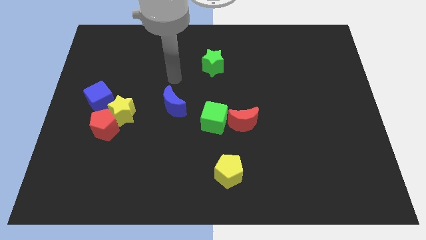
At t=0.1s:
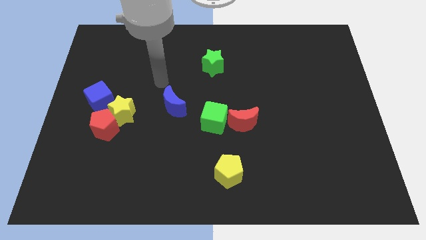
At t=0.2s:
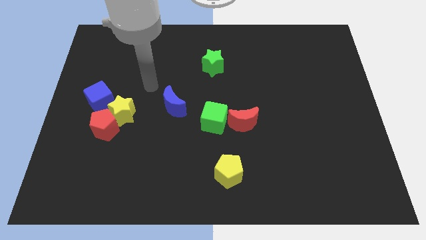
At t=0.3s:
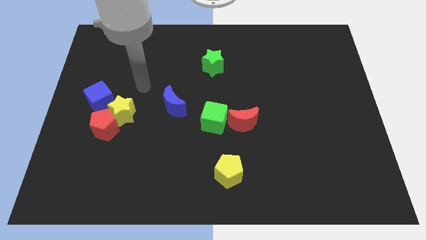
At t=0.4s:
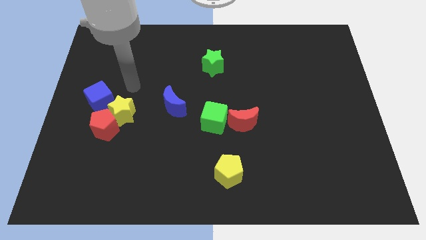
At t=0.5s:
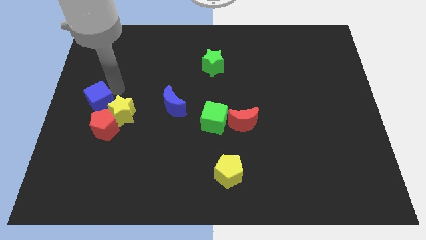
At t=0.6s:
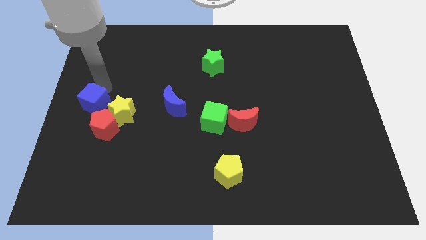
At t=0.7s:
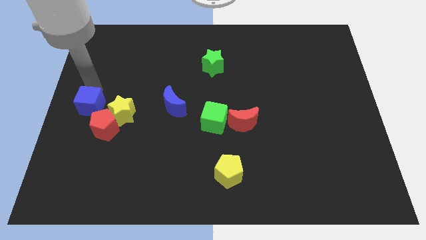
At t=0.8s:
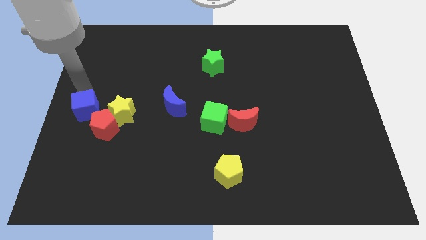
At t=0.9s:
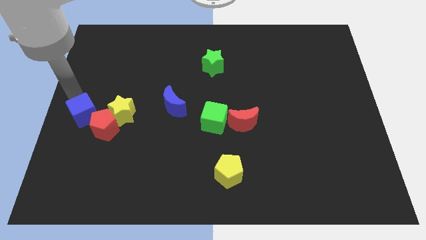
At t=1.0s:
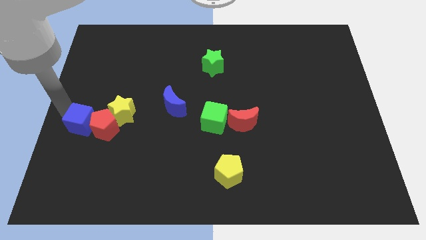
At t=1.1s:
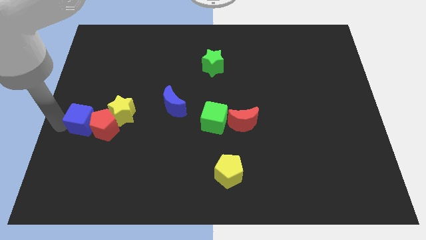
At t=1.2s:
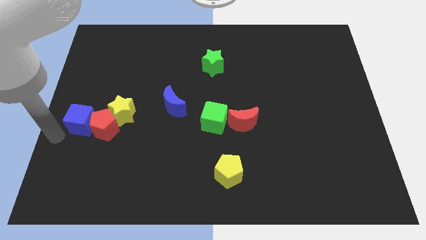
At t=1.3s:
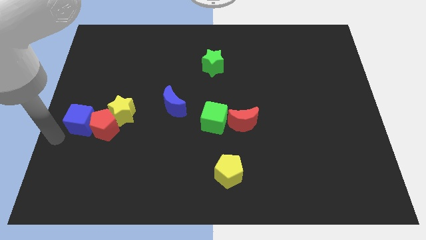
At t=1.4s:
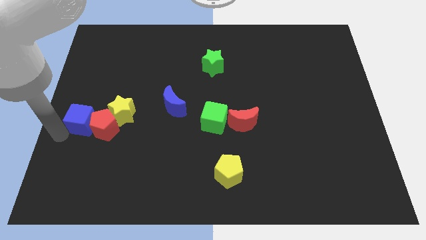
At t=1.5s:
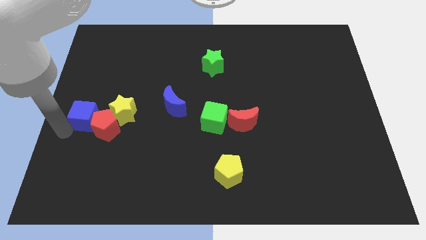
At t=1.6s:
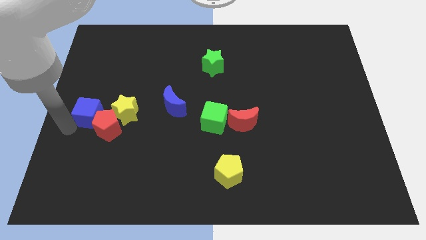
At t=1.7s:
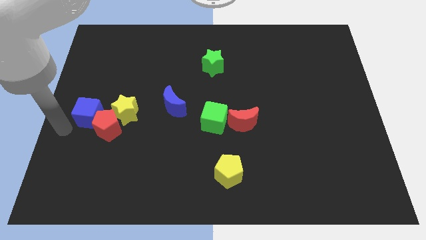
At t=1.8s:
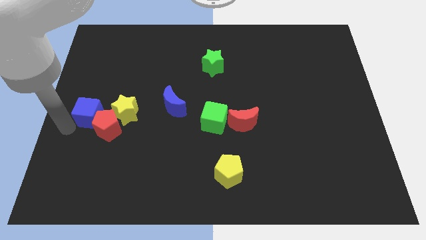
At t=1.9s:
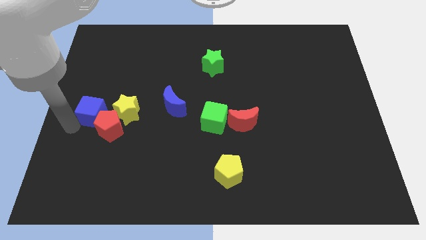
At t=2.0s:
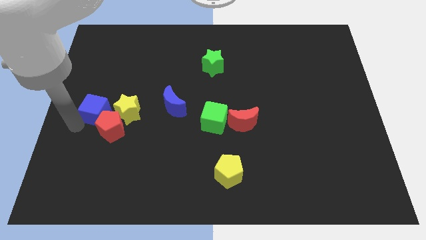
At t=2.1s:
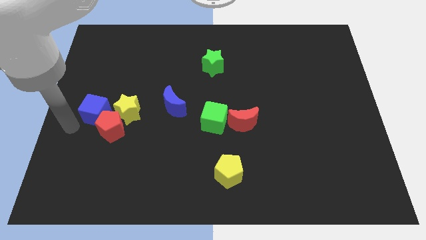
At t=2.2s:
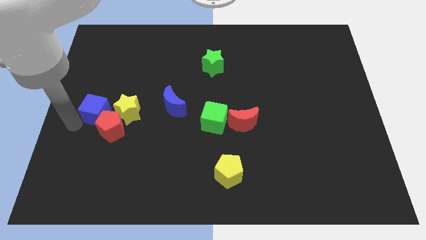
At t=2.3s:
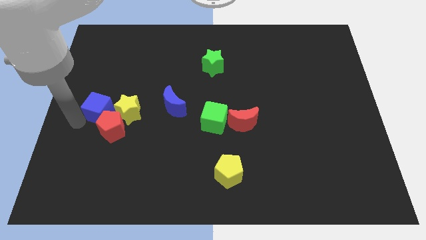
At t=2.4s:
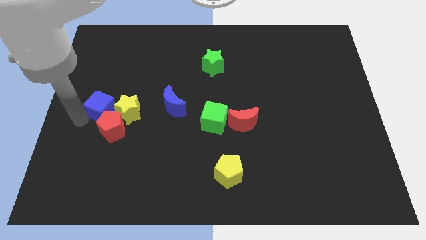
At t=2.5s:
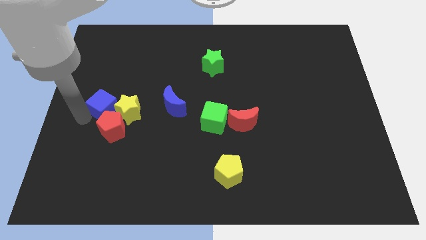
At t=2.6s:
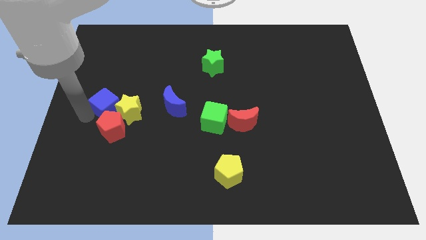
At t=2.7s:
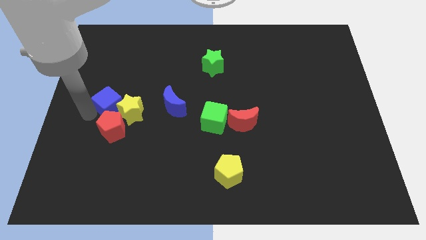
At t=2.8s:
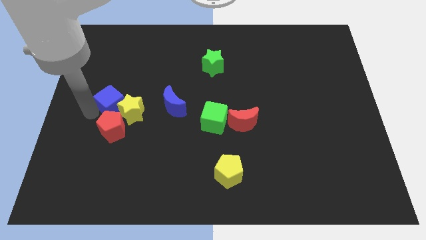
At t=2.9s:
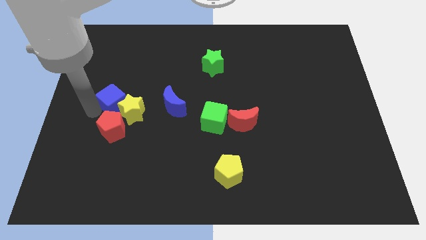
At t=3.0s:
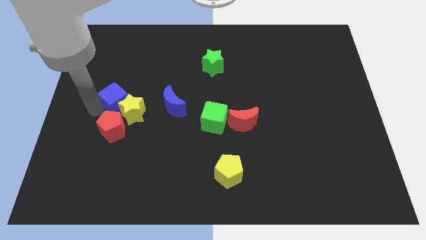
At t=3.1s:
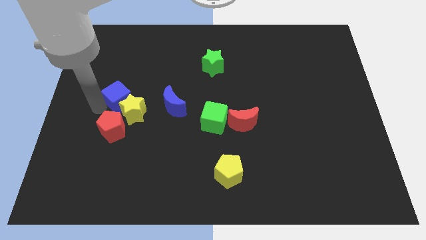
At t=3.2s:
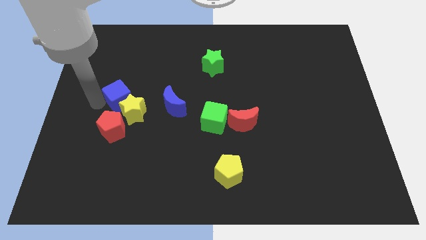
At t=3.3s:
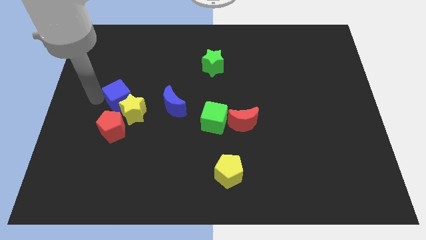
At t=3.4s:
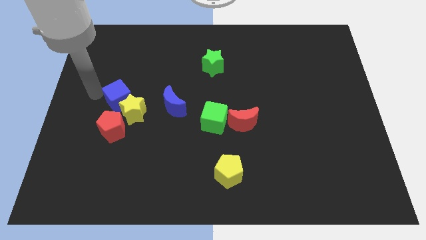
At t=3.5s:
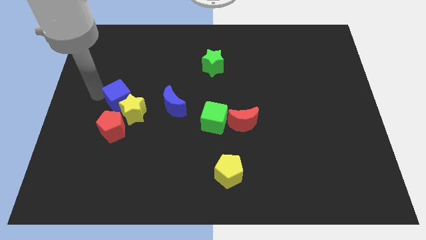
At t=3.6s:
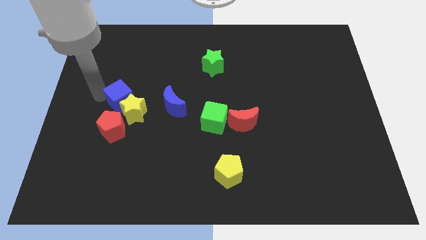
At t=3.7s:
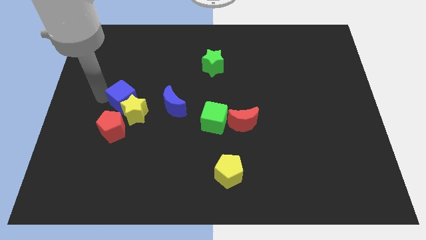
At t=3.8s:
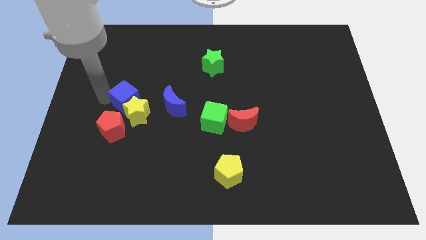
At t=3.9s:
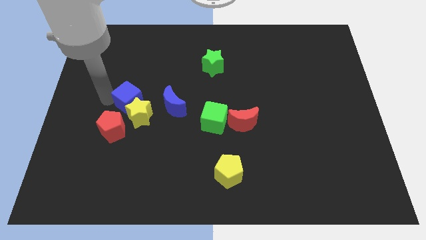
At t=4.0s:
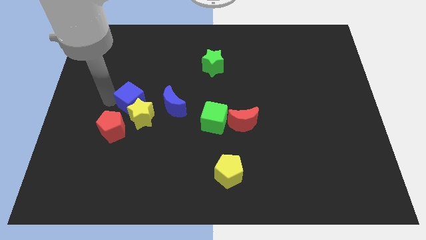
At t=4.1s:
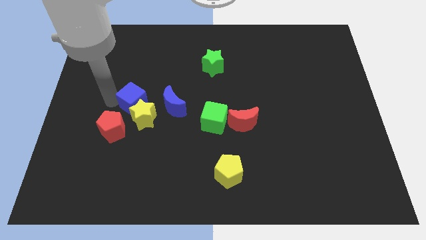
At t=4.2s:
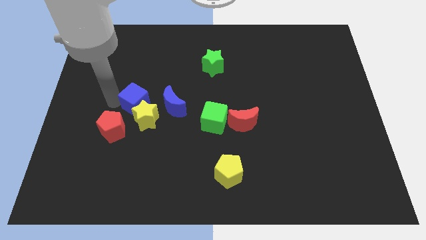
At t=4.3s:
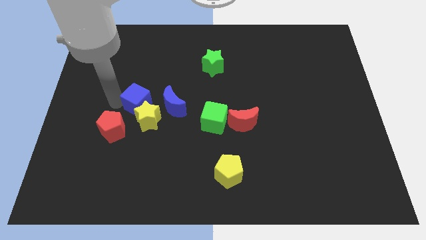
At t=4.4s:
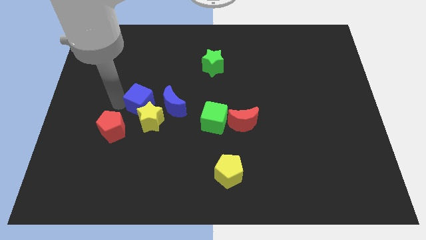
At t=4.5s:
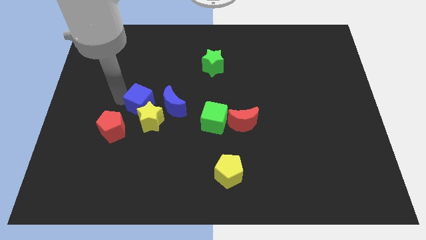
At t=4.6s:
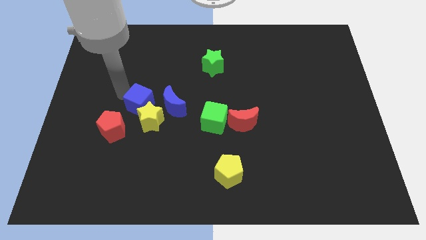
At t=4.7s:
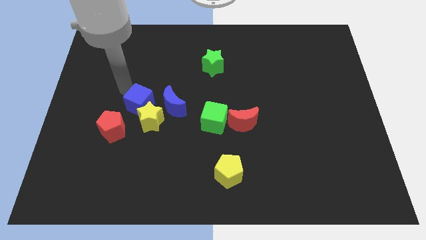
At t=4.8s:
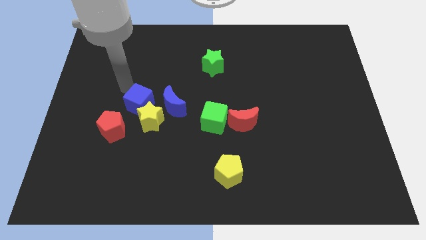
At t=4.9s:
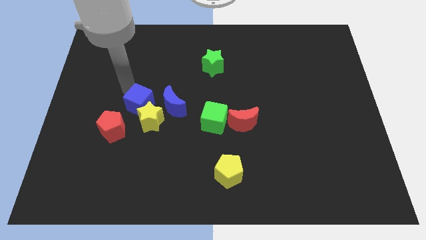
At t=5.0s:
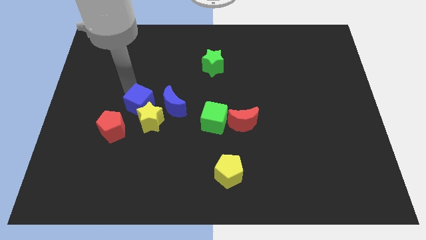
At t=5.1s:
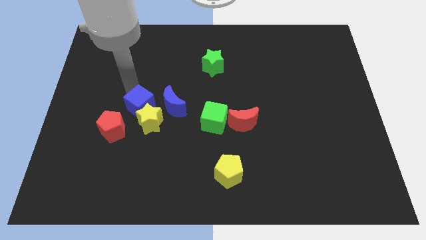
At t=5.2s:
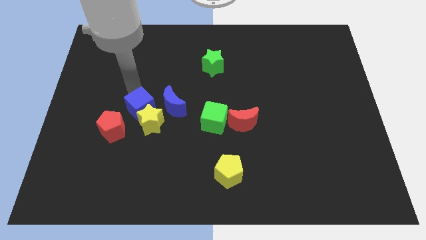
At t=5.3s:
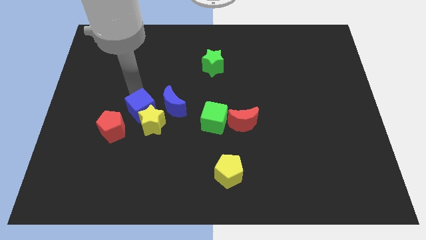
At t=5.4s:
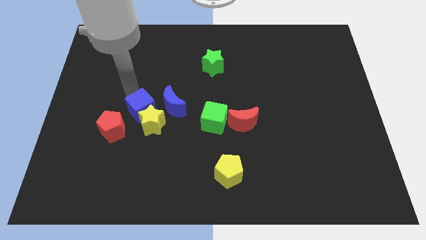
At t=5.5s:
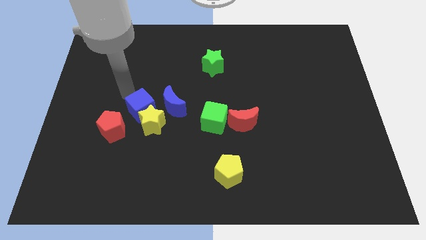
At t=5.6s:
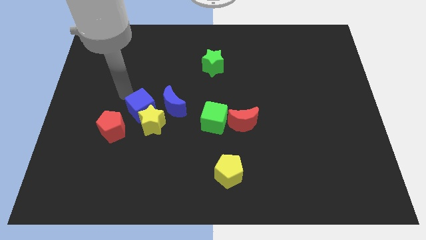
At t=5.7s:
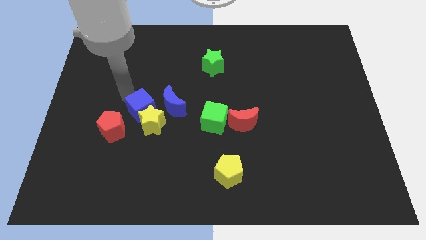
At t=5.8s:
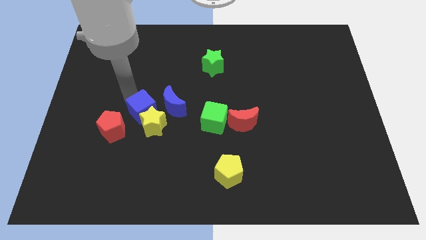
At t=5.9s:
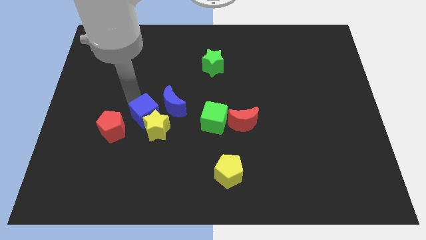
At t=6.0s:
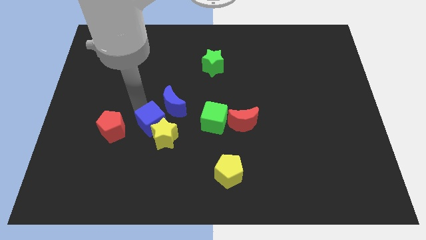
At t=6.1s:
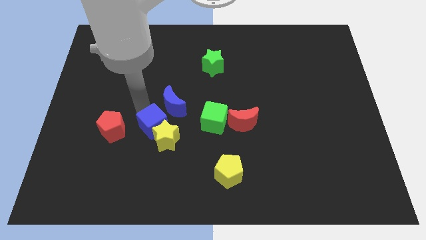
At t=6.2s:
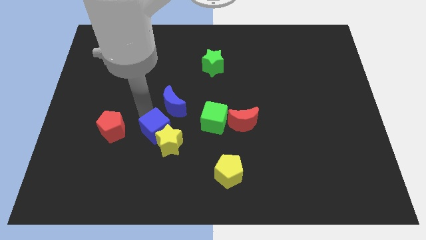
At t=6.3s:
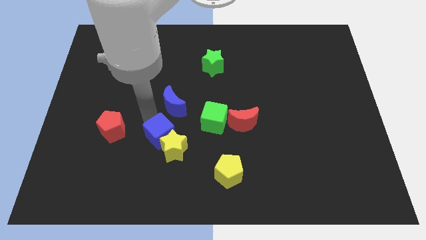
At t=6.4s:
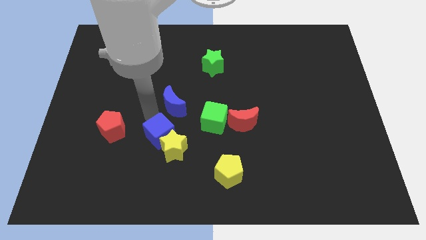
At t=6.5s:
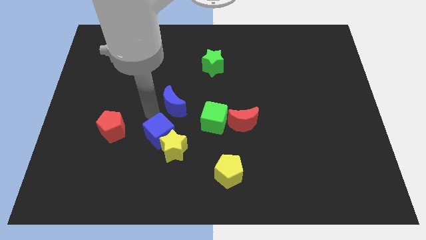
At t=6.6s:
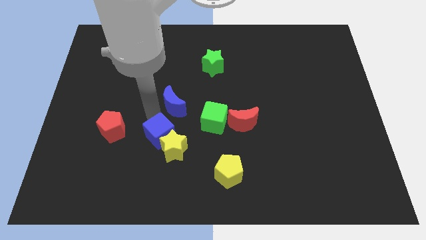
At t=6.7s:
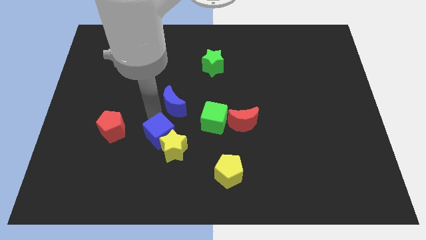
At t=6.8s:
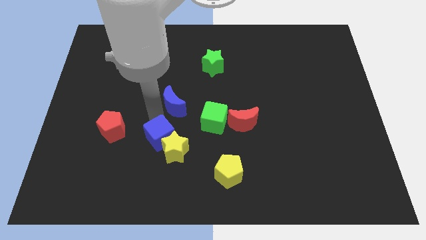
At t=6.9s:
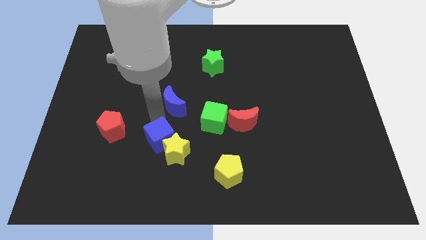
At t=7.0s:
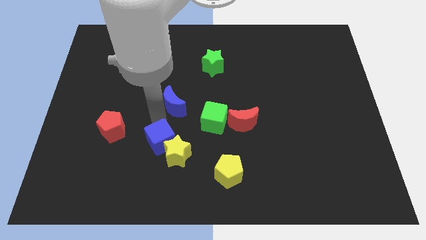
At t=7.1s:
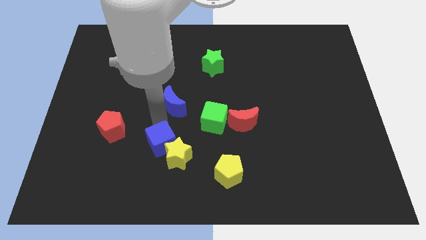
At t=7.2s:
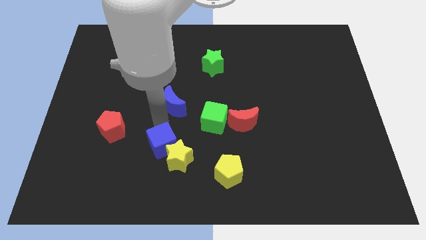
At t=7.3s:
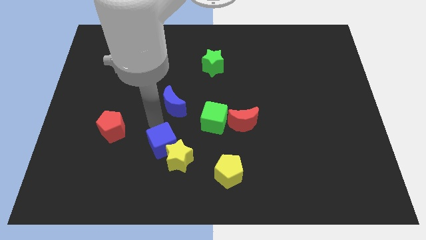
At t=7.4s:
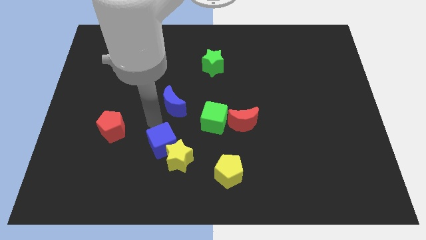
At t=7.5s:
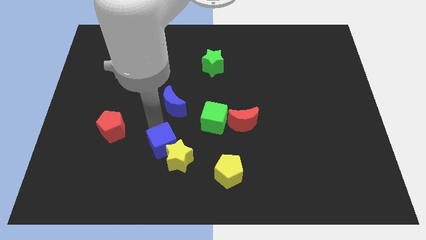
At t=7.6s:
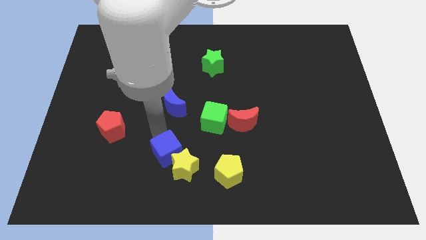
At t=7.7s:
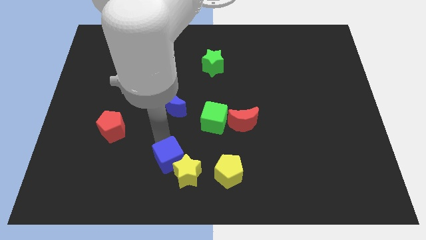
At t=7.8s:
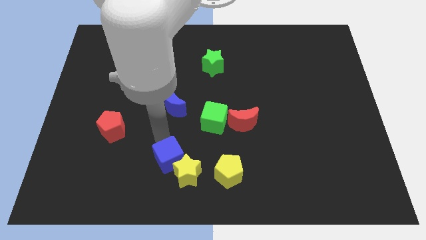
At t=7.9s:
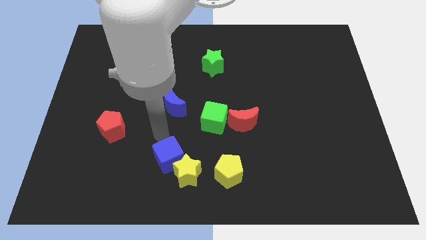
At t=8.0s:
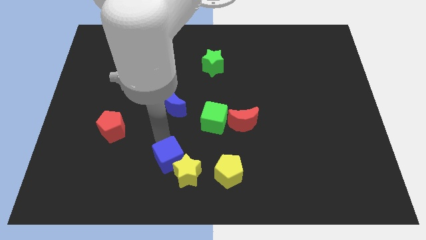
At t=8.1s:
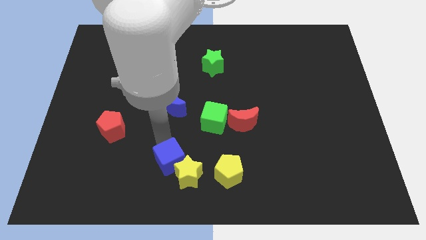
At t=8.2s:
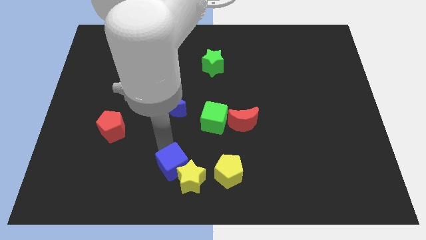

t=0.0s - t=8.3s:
move the blue cube to the bottom
